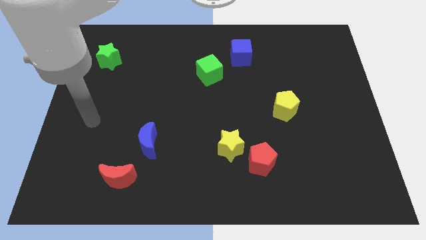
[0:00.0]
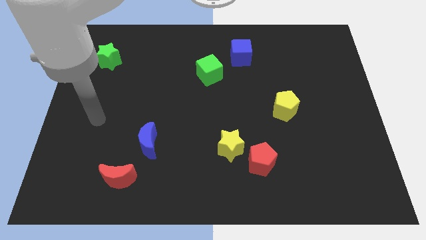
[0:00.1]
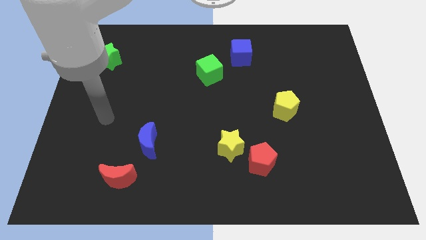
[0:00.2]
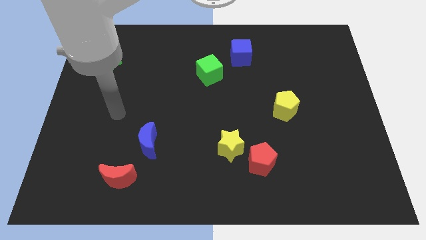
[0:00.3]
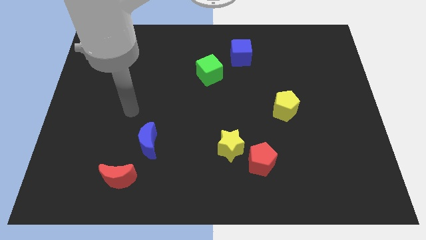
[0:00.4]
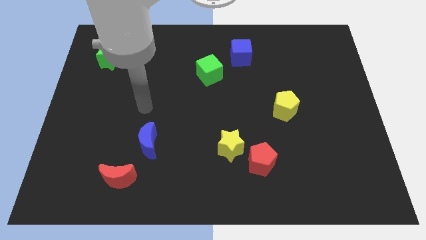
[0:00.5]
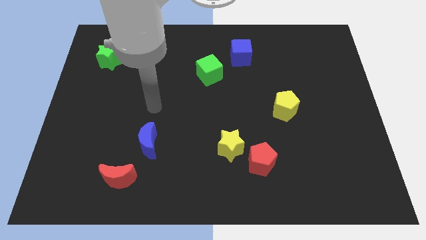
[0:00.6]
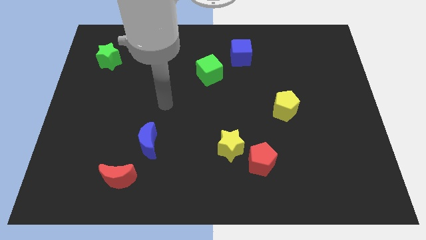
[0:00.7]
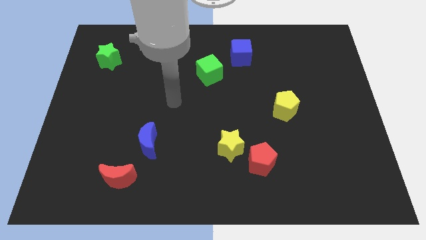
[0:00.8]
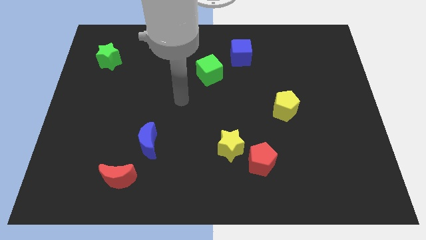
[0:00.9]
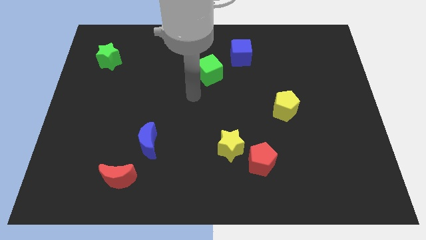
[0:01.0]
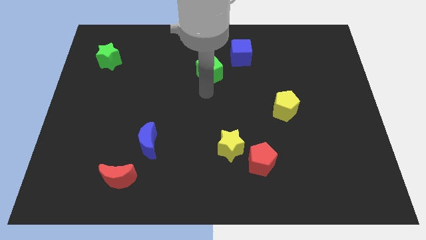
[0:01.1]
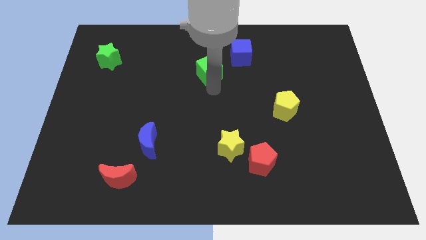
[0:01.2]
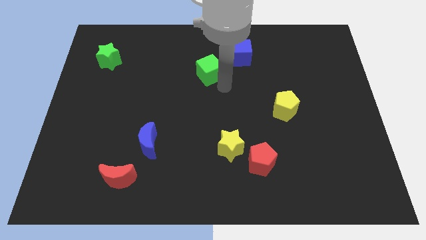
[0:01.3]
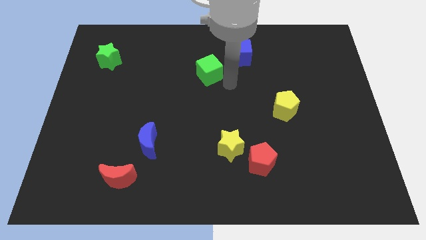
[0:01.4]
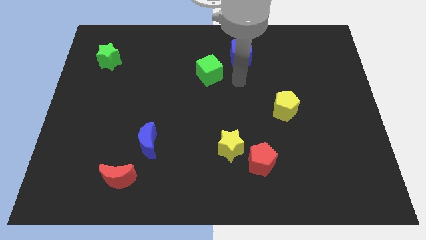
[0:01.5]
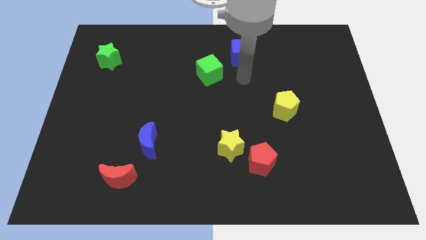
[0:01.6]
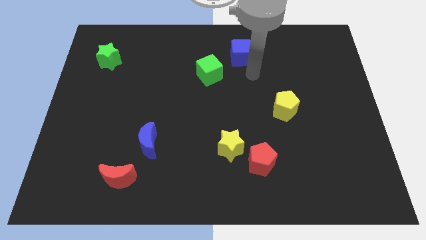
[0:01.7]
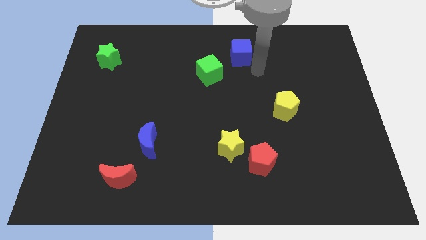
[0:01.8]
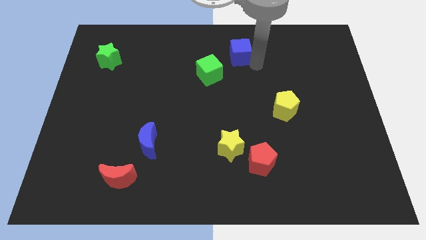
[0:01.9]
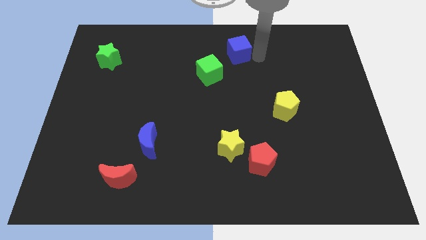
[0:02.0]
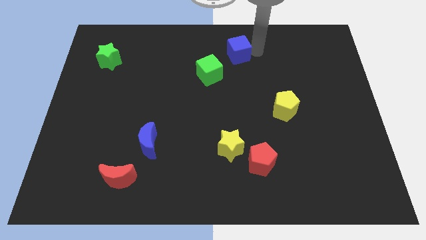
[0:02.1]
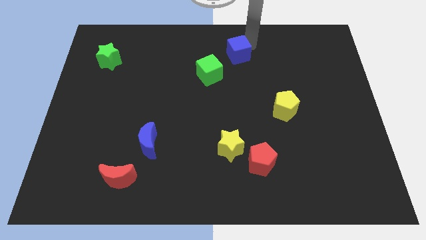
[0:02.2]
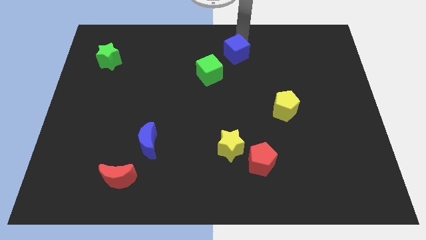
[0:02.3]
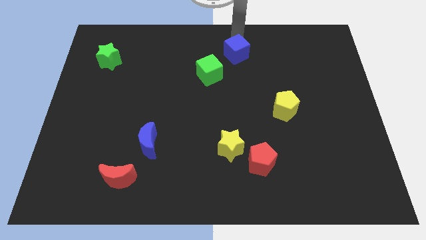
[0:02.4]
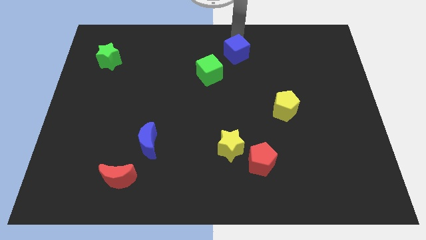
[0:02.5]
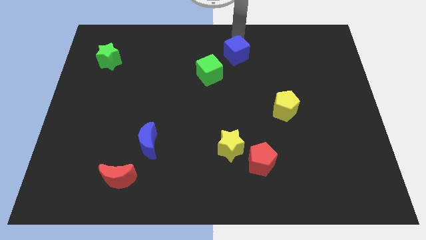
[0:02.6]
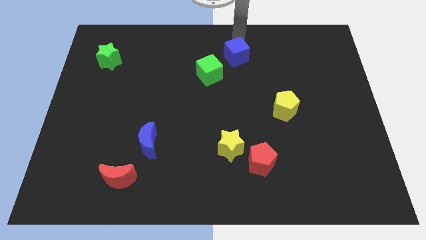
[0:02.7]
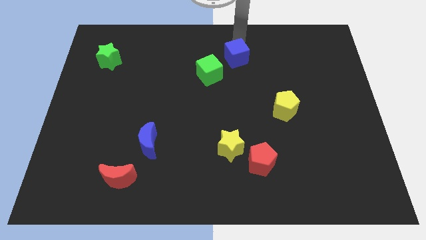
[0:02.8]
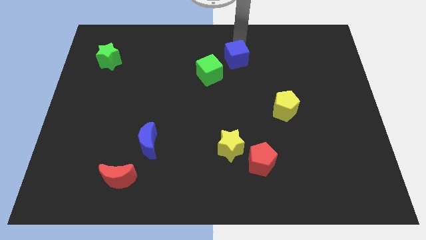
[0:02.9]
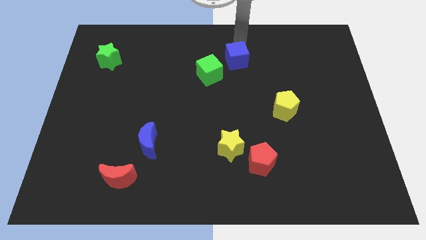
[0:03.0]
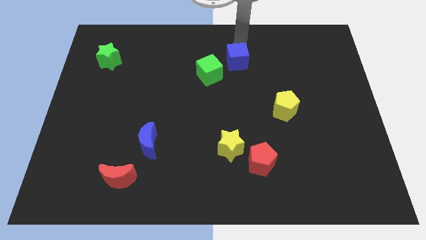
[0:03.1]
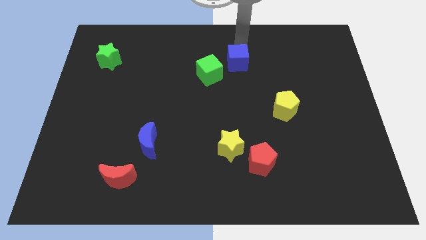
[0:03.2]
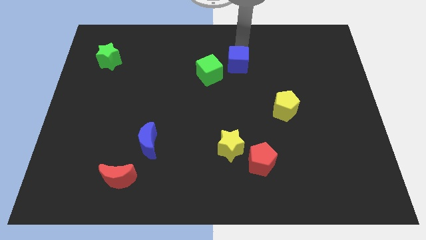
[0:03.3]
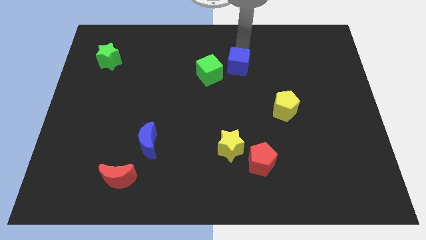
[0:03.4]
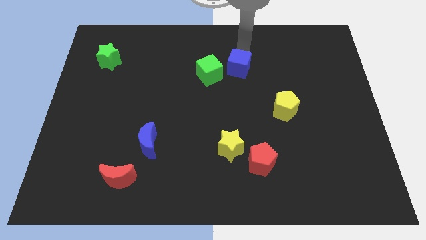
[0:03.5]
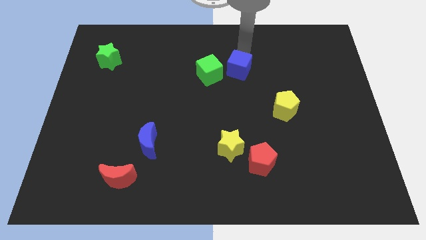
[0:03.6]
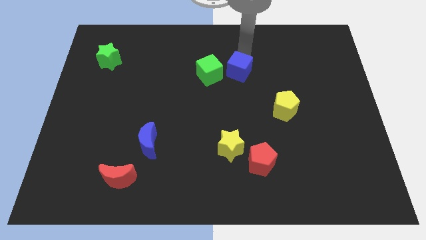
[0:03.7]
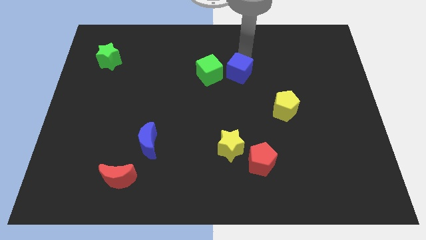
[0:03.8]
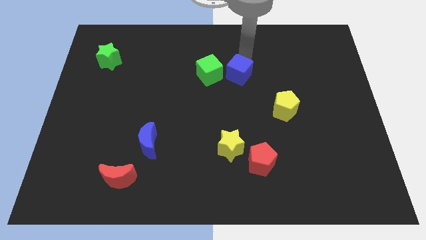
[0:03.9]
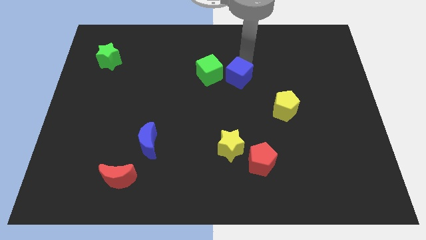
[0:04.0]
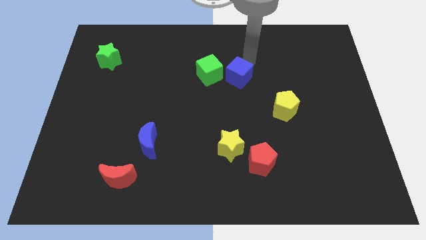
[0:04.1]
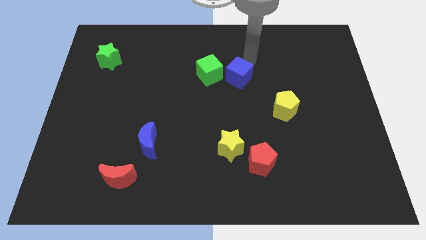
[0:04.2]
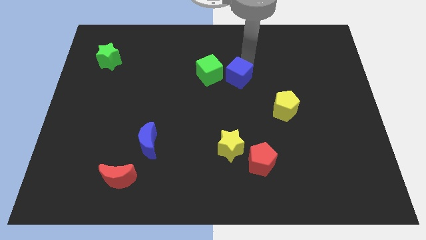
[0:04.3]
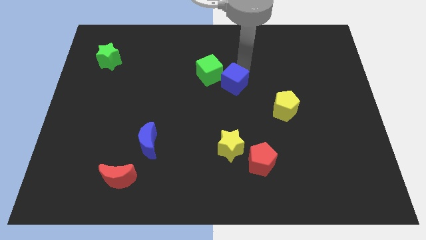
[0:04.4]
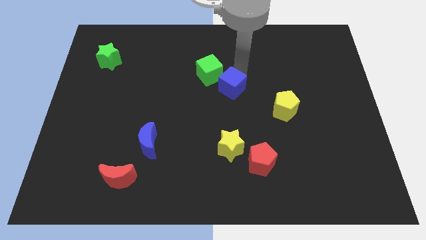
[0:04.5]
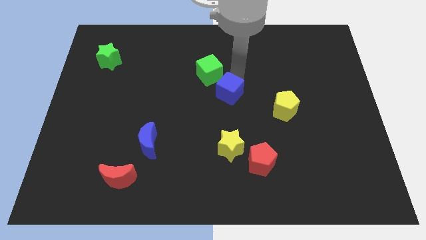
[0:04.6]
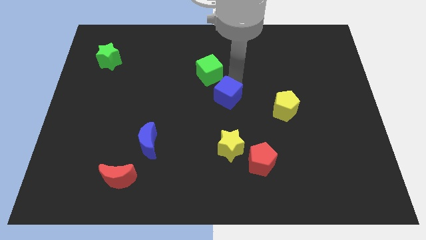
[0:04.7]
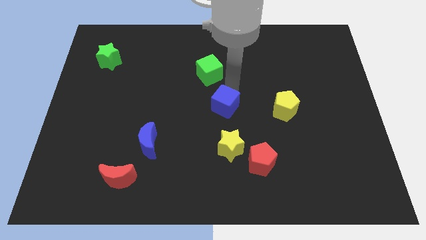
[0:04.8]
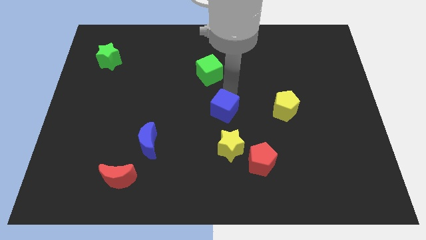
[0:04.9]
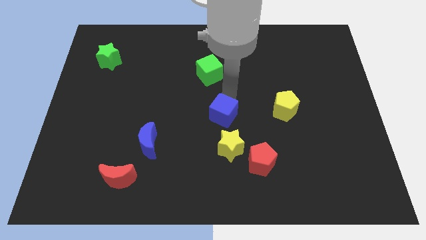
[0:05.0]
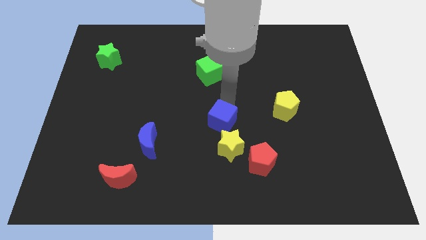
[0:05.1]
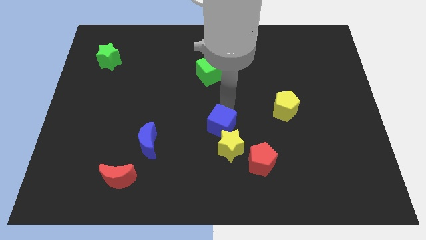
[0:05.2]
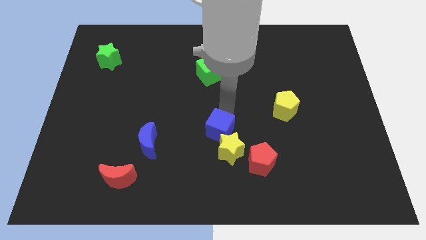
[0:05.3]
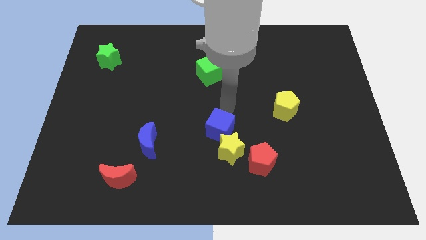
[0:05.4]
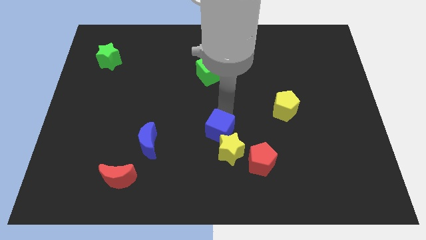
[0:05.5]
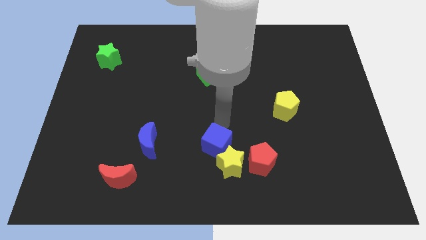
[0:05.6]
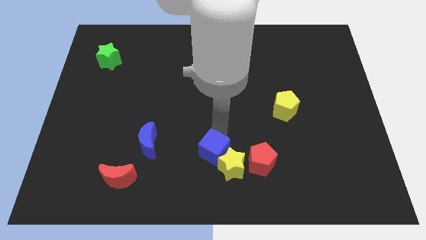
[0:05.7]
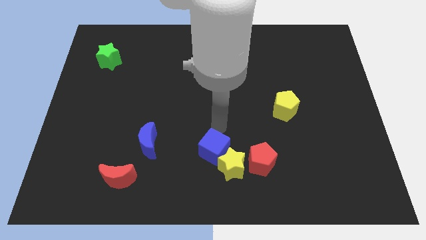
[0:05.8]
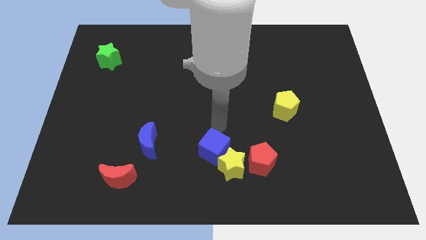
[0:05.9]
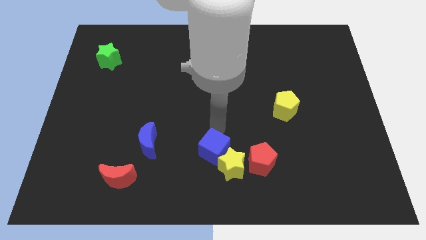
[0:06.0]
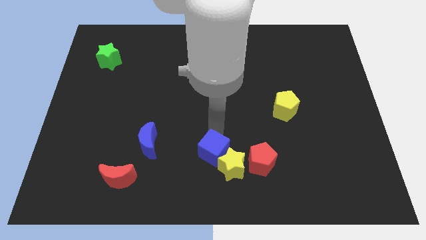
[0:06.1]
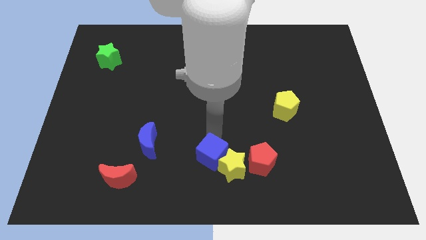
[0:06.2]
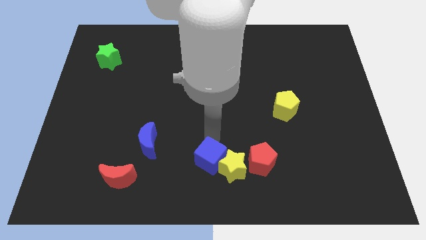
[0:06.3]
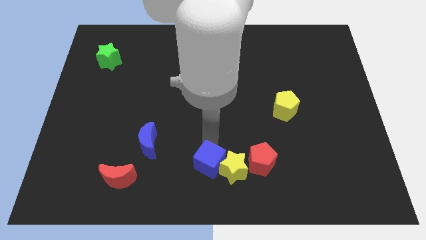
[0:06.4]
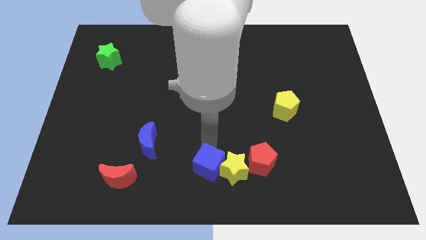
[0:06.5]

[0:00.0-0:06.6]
move the blue cube to the bottom left of the yellow star

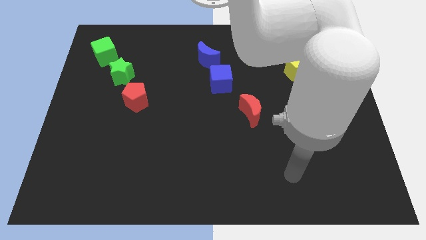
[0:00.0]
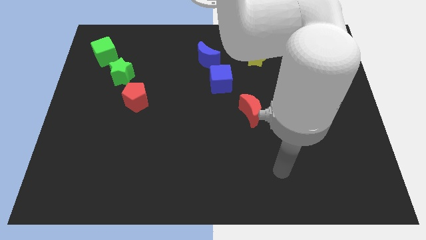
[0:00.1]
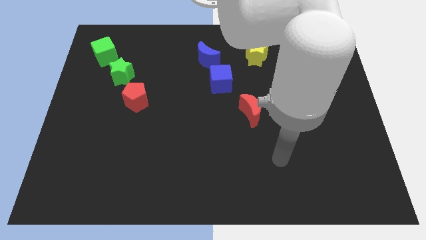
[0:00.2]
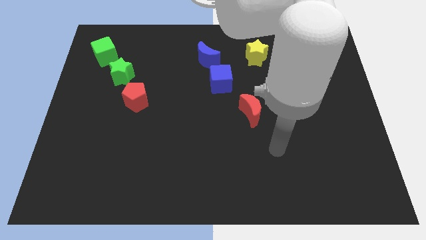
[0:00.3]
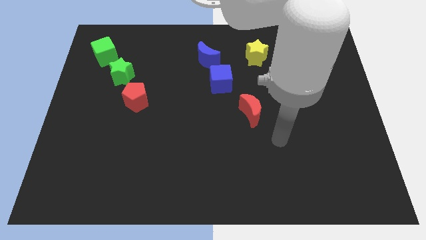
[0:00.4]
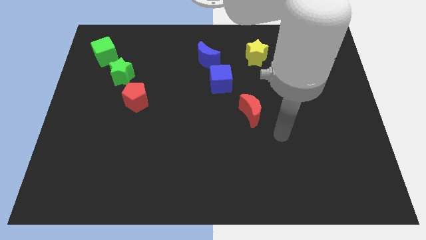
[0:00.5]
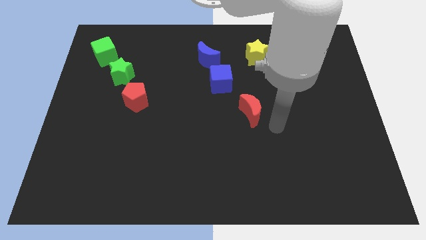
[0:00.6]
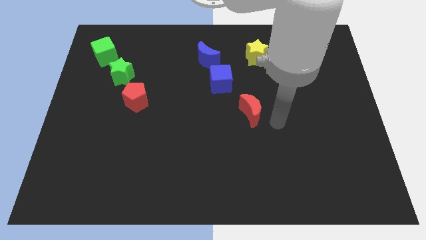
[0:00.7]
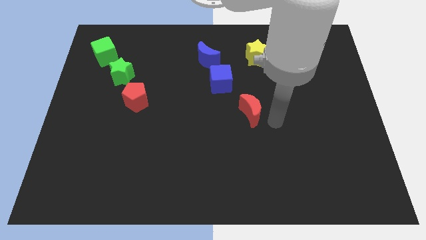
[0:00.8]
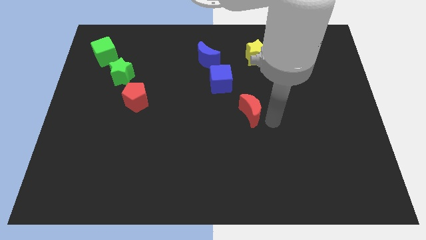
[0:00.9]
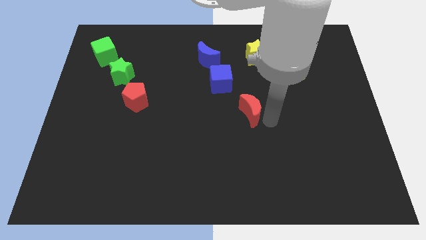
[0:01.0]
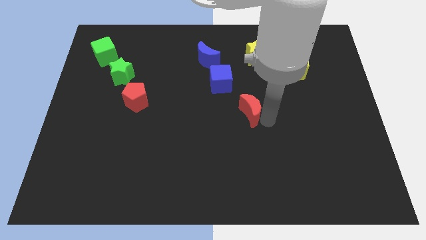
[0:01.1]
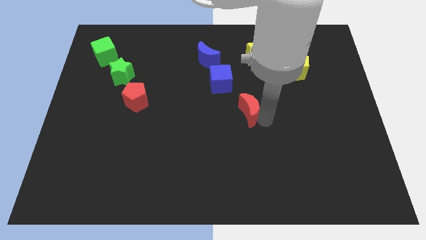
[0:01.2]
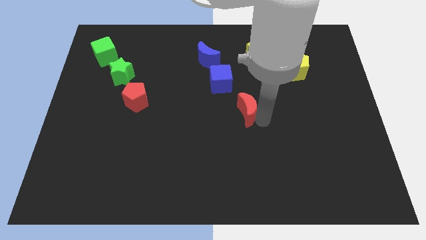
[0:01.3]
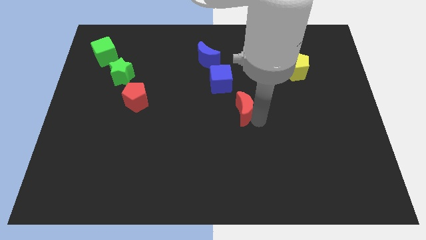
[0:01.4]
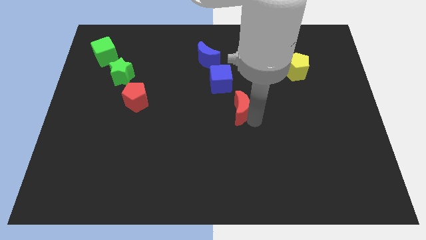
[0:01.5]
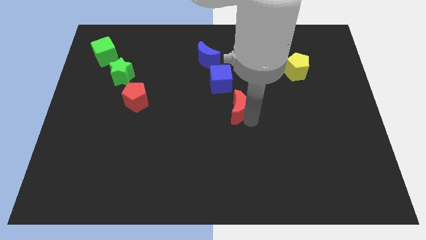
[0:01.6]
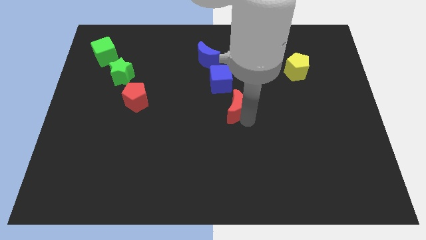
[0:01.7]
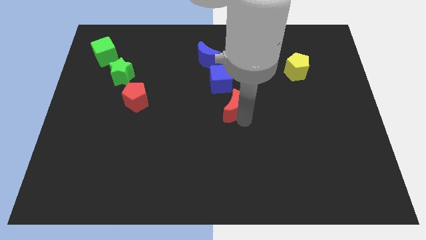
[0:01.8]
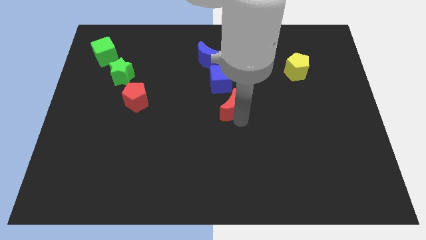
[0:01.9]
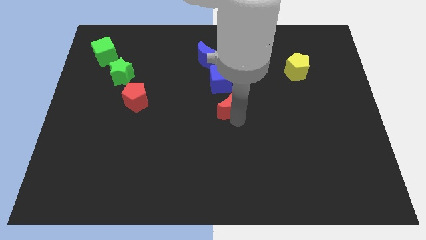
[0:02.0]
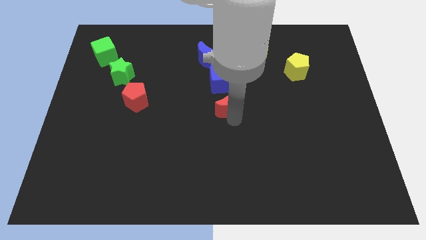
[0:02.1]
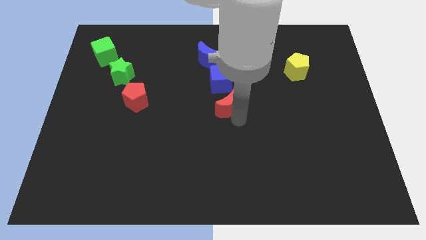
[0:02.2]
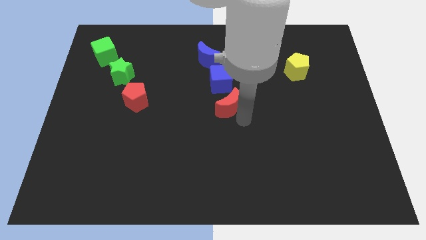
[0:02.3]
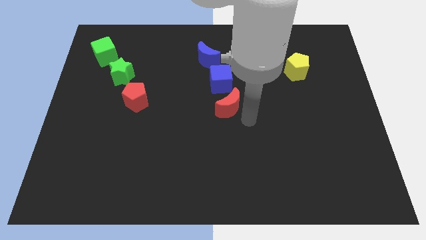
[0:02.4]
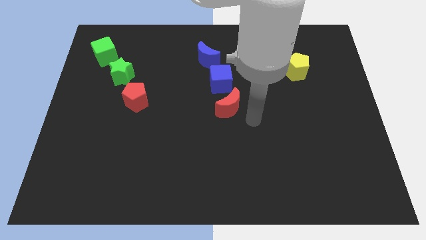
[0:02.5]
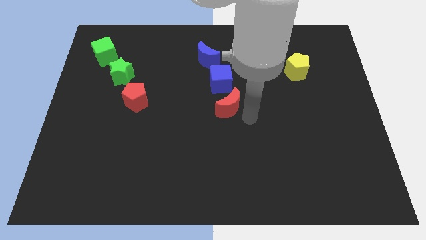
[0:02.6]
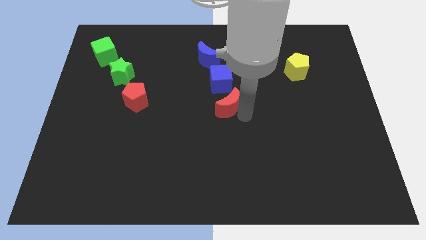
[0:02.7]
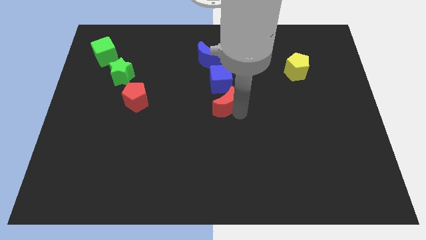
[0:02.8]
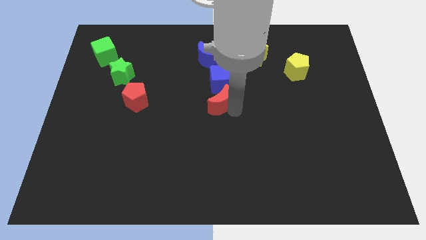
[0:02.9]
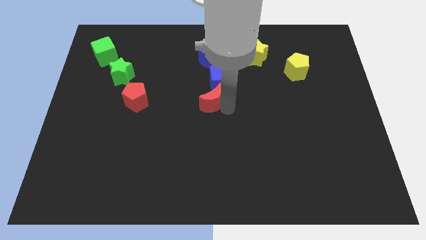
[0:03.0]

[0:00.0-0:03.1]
push the red moon to the bottom of the blue moon
